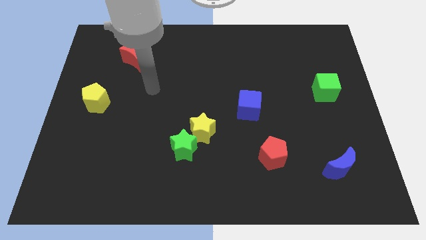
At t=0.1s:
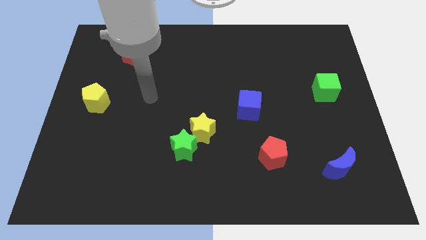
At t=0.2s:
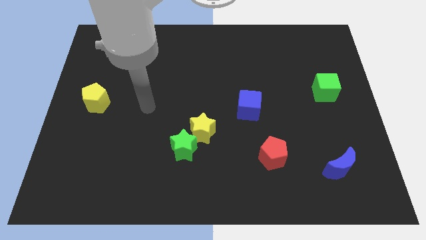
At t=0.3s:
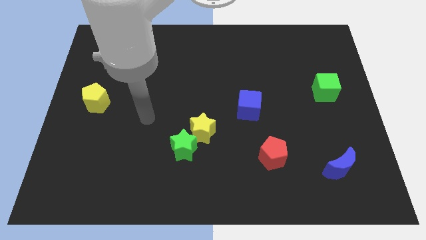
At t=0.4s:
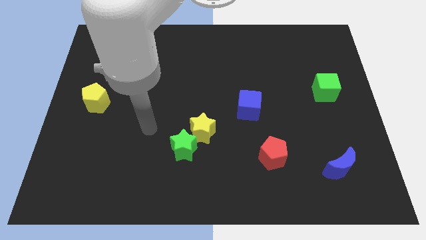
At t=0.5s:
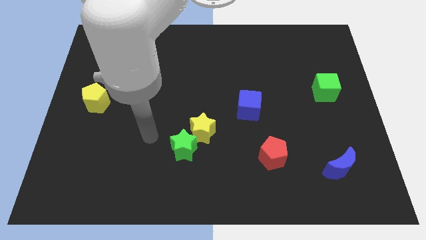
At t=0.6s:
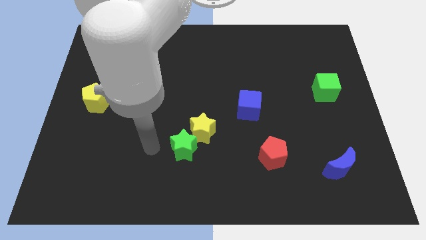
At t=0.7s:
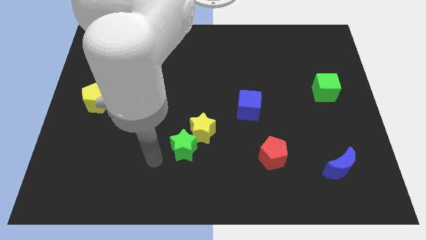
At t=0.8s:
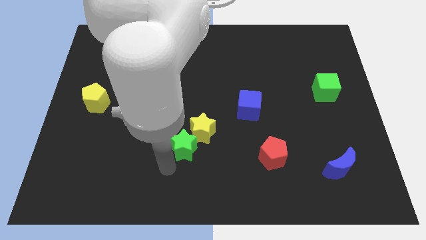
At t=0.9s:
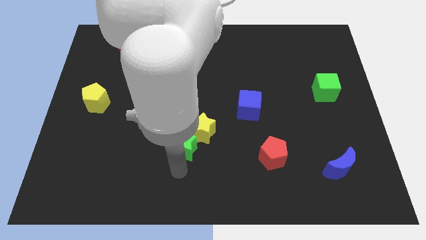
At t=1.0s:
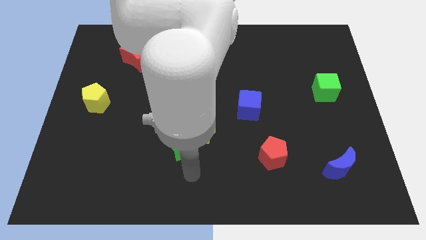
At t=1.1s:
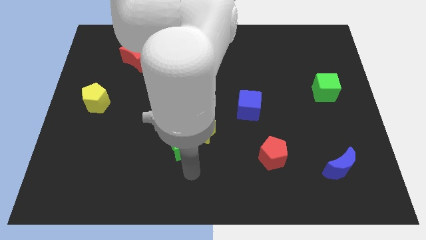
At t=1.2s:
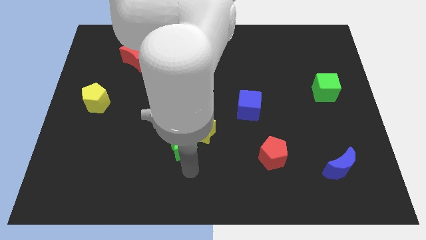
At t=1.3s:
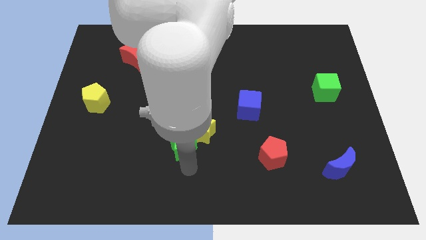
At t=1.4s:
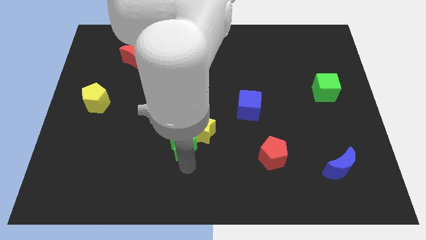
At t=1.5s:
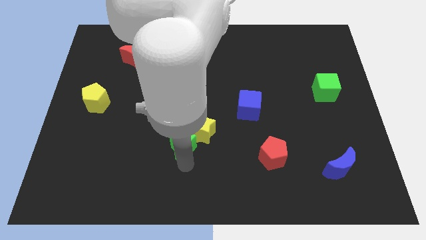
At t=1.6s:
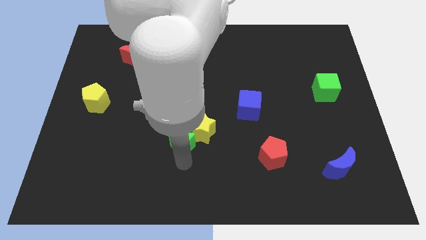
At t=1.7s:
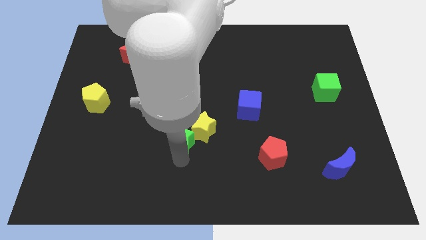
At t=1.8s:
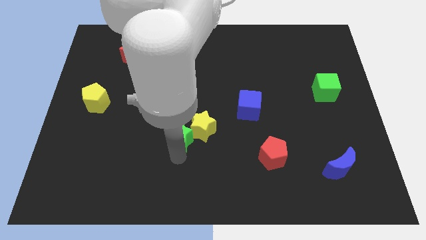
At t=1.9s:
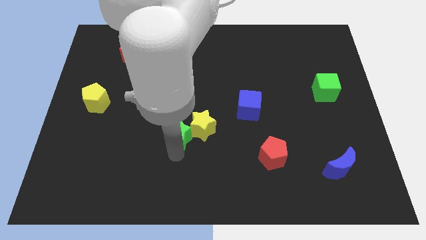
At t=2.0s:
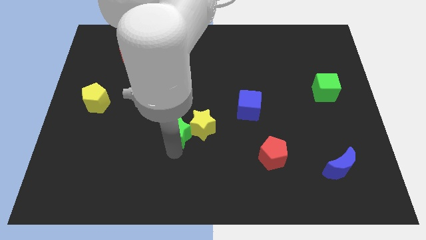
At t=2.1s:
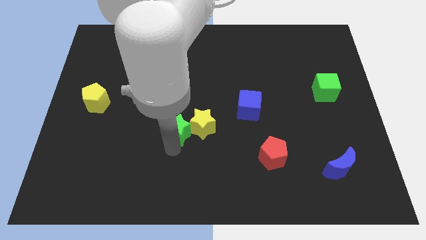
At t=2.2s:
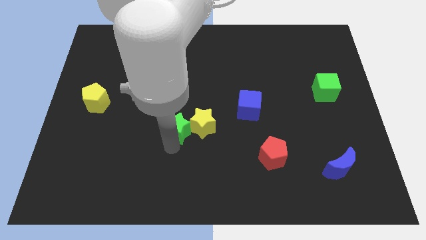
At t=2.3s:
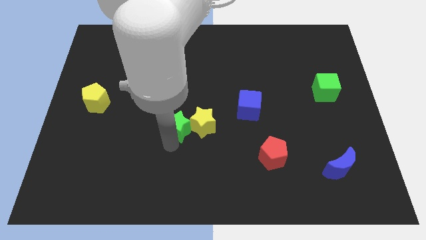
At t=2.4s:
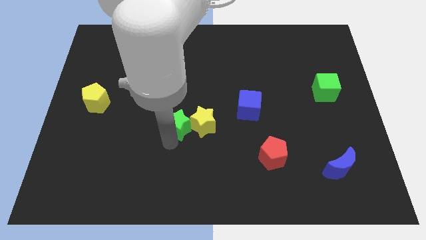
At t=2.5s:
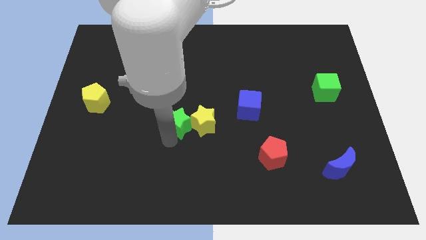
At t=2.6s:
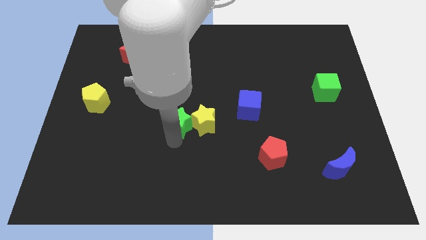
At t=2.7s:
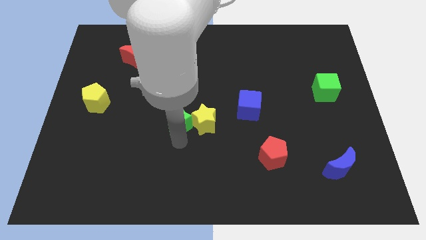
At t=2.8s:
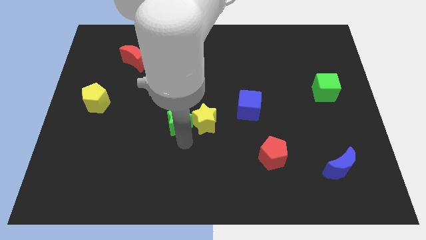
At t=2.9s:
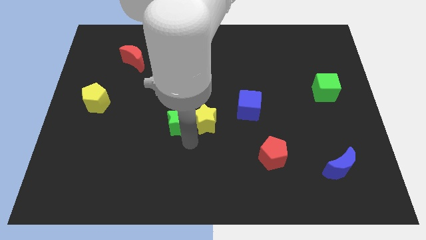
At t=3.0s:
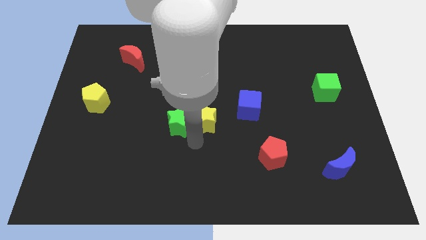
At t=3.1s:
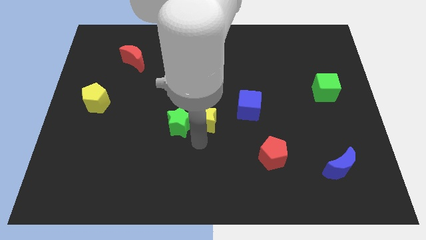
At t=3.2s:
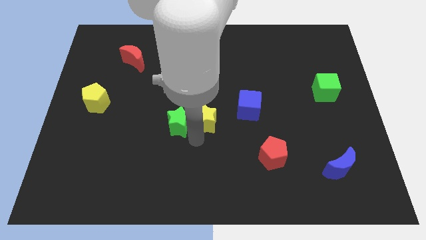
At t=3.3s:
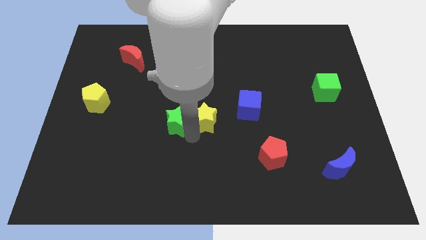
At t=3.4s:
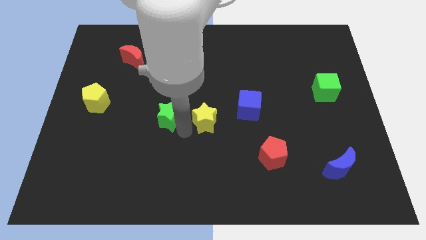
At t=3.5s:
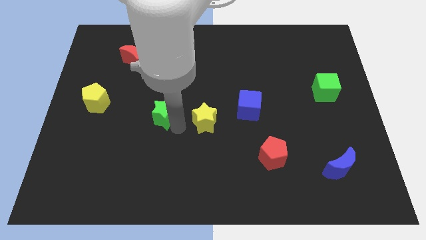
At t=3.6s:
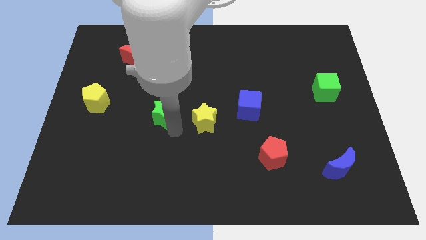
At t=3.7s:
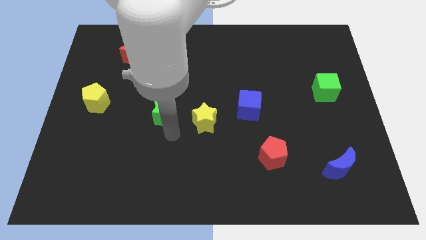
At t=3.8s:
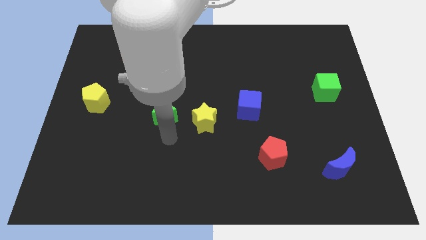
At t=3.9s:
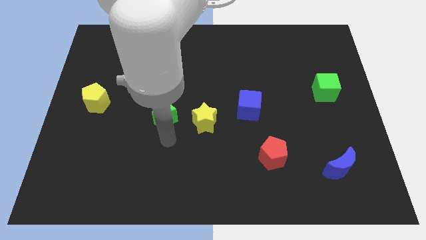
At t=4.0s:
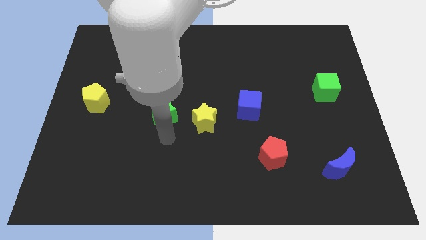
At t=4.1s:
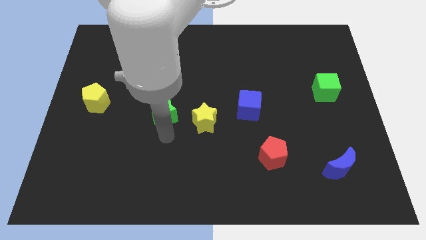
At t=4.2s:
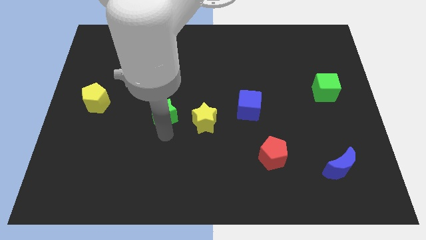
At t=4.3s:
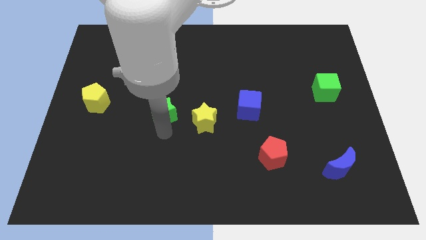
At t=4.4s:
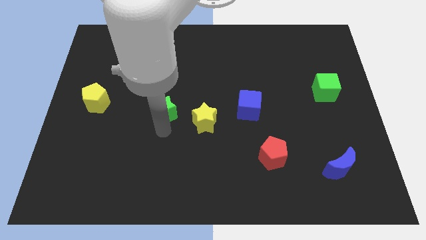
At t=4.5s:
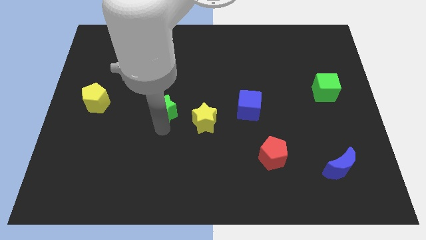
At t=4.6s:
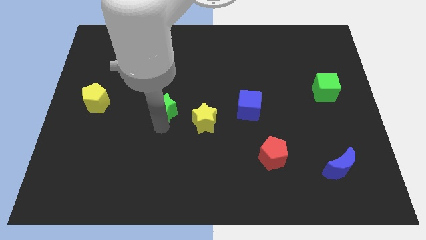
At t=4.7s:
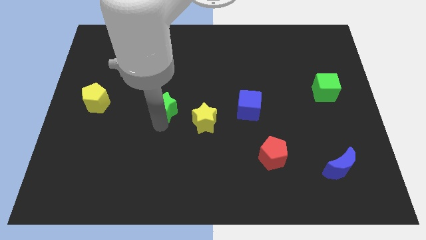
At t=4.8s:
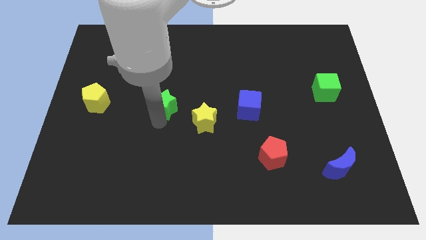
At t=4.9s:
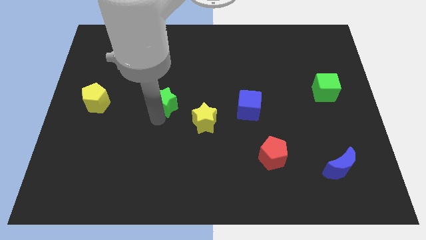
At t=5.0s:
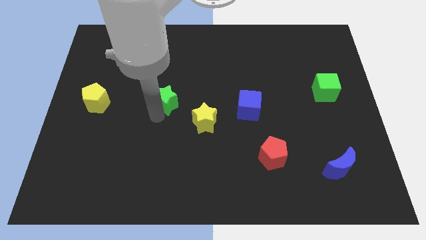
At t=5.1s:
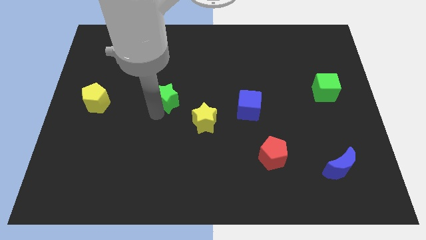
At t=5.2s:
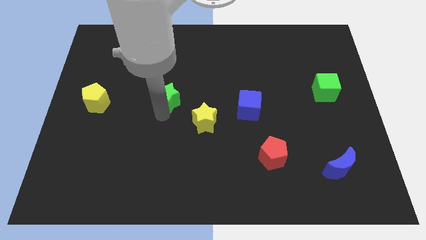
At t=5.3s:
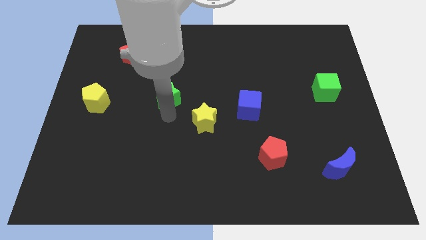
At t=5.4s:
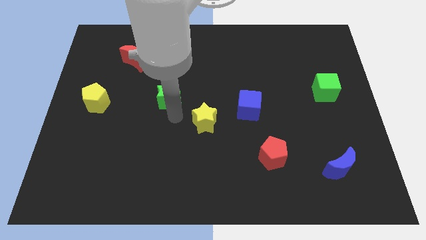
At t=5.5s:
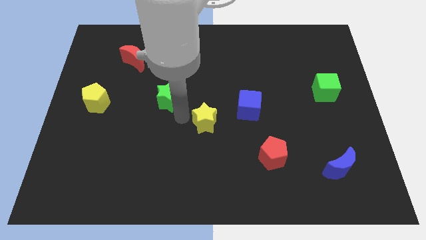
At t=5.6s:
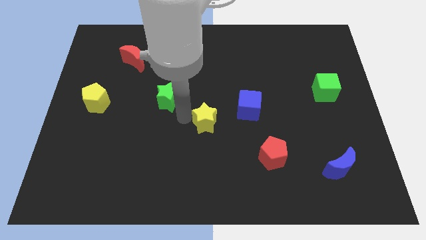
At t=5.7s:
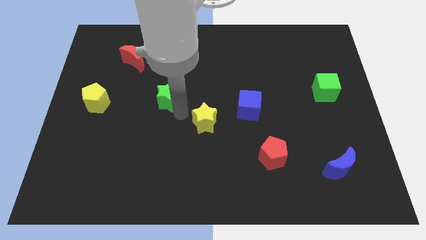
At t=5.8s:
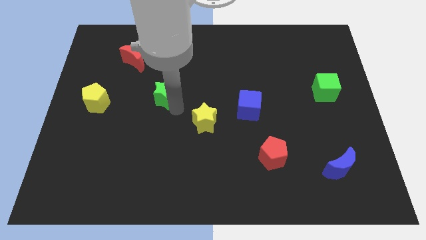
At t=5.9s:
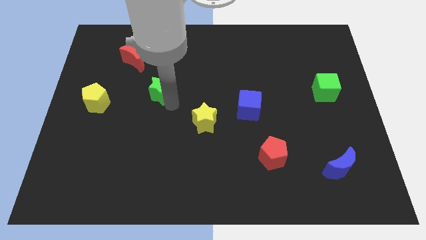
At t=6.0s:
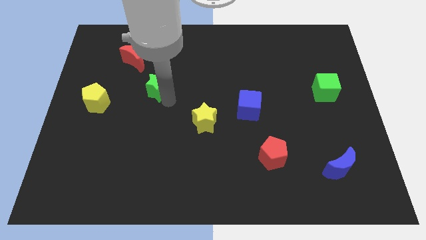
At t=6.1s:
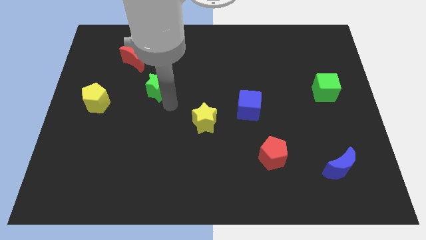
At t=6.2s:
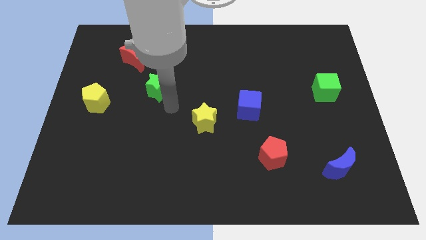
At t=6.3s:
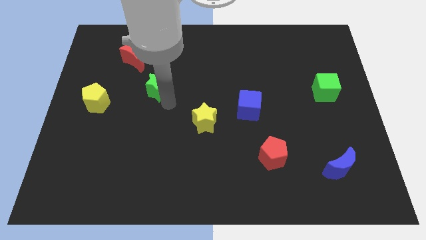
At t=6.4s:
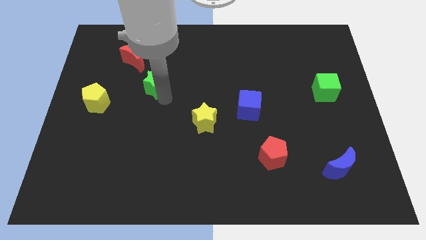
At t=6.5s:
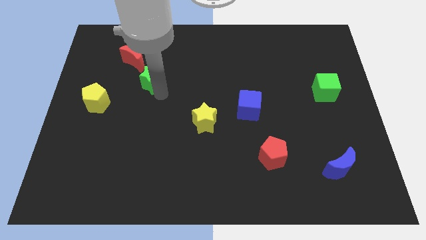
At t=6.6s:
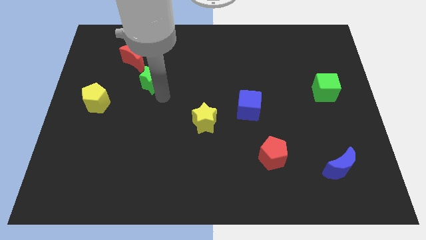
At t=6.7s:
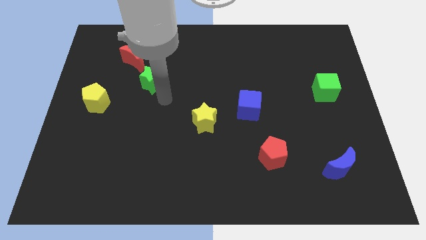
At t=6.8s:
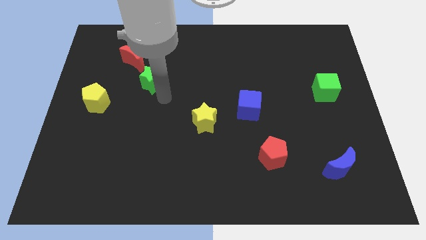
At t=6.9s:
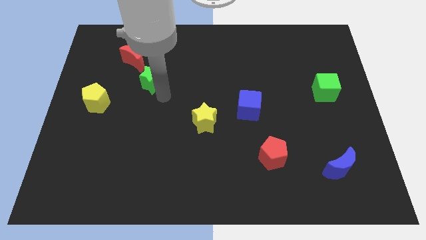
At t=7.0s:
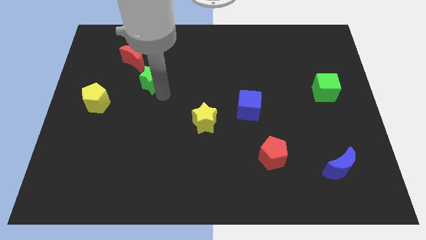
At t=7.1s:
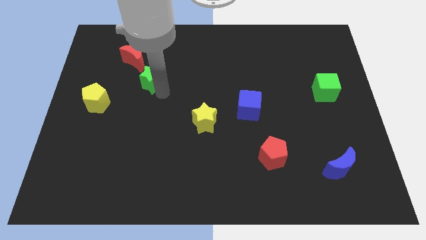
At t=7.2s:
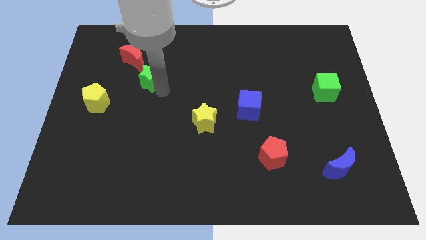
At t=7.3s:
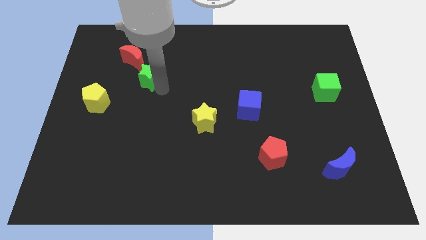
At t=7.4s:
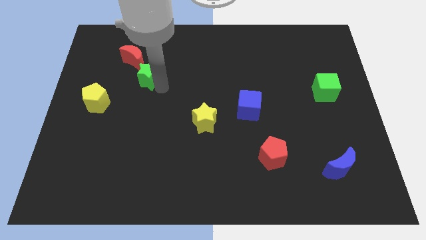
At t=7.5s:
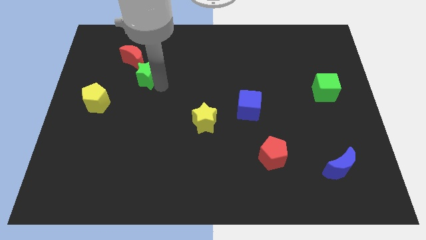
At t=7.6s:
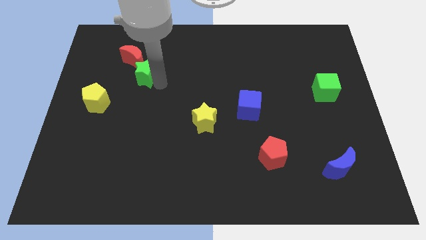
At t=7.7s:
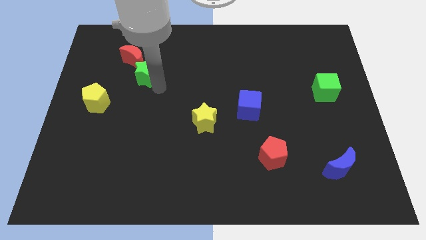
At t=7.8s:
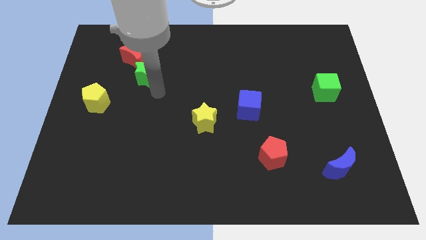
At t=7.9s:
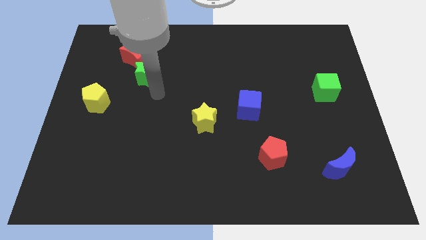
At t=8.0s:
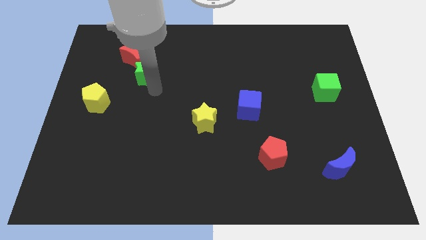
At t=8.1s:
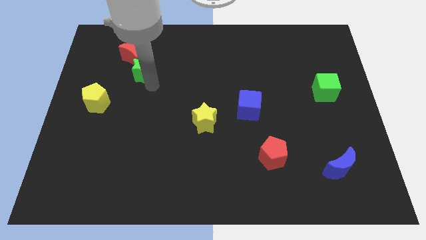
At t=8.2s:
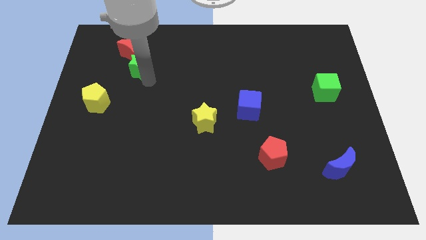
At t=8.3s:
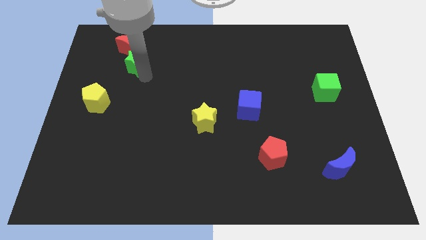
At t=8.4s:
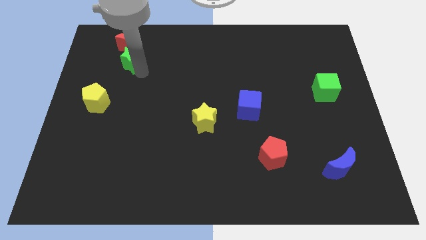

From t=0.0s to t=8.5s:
slide the green star close to the red moon
